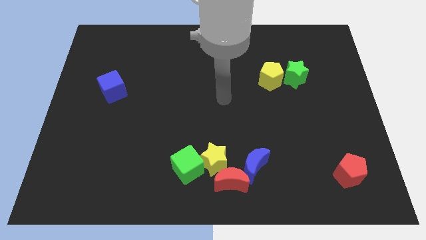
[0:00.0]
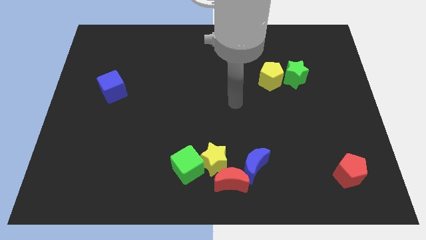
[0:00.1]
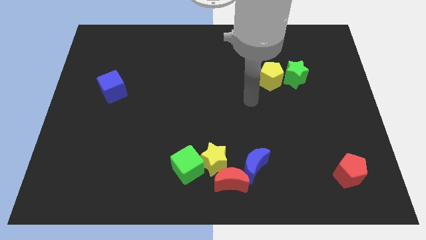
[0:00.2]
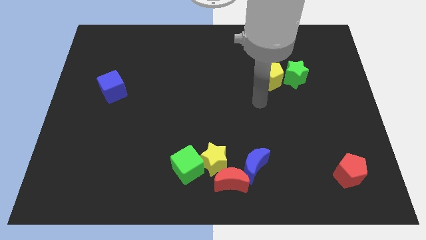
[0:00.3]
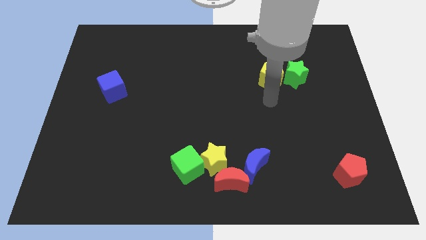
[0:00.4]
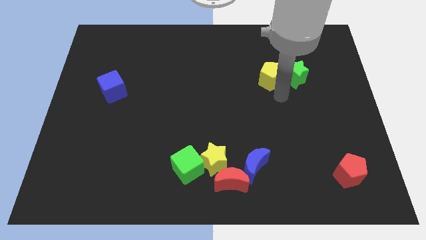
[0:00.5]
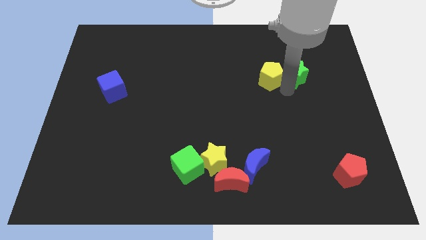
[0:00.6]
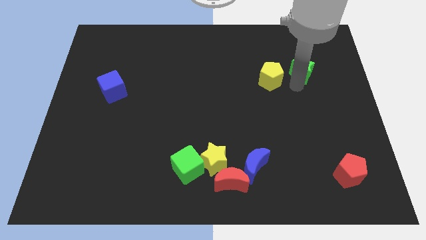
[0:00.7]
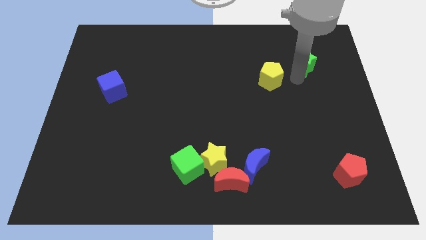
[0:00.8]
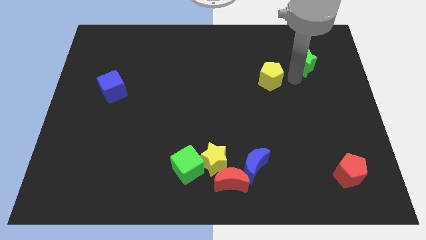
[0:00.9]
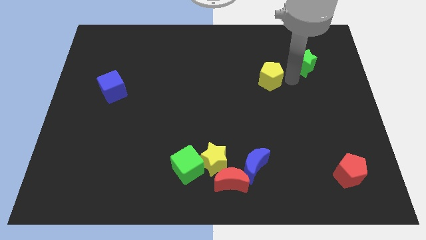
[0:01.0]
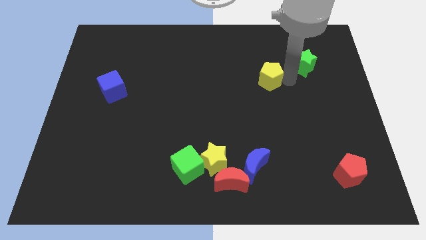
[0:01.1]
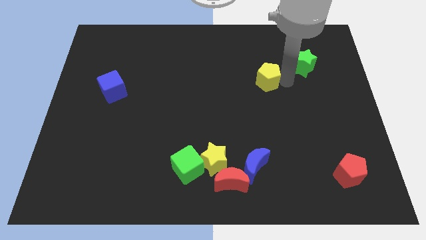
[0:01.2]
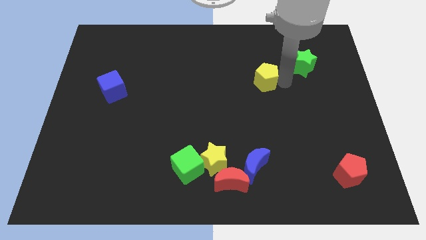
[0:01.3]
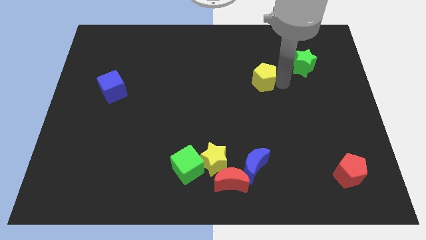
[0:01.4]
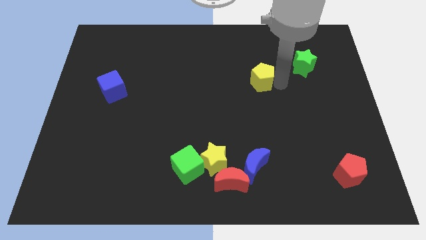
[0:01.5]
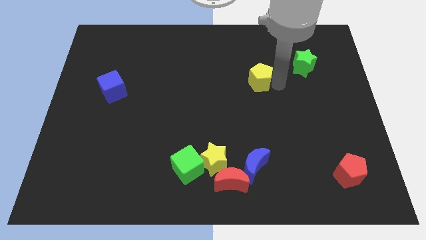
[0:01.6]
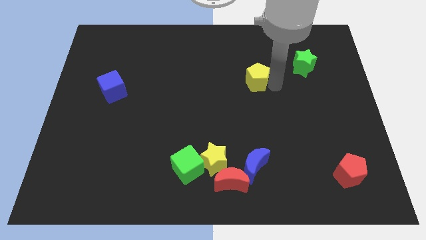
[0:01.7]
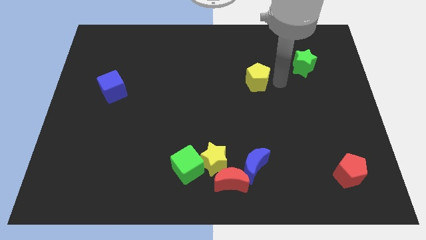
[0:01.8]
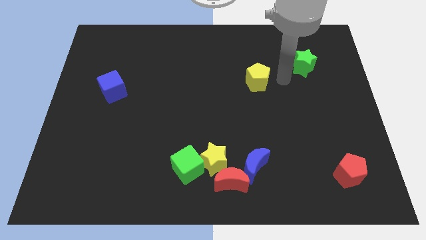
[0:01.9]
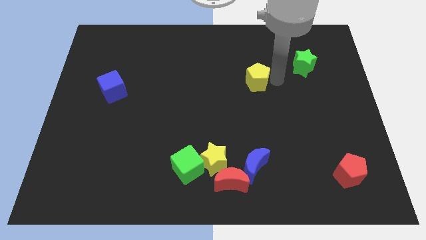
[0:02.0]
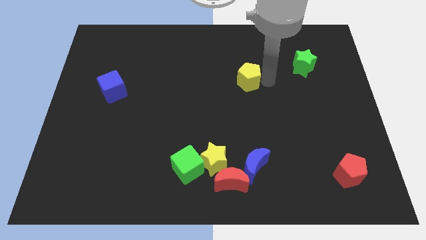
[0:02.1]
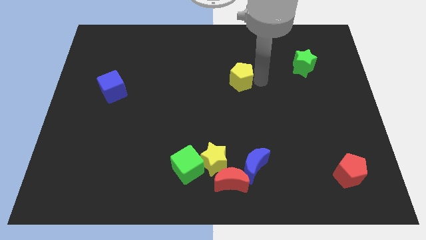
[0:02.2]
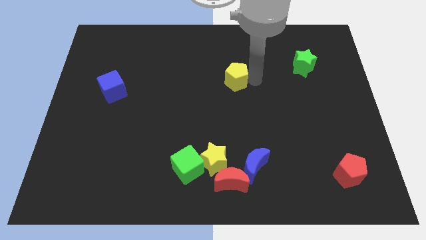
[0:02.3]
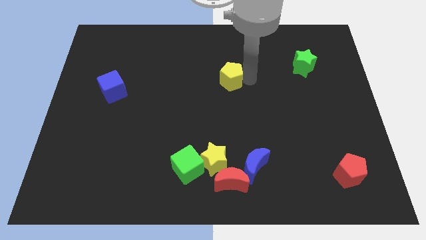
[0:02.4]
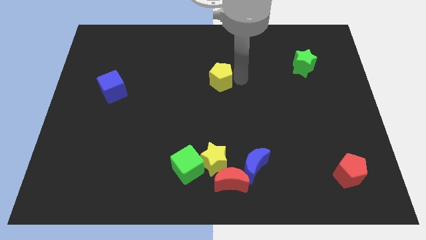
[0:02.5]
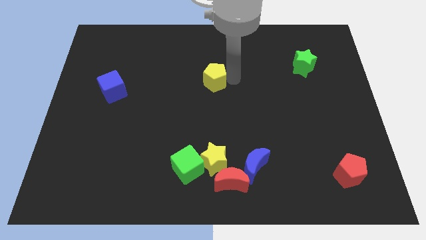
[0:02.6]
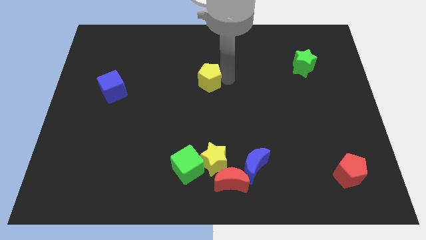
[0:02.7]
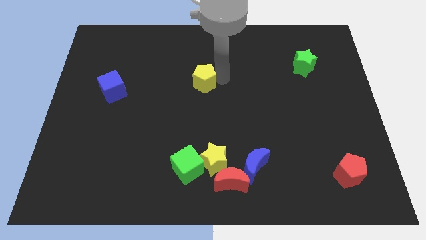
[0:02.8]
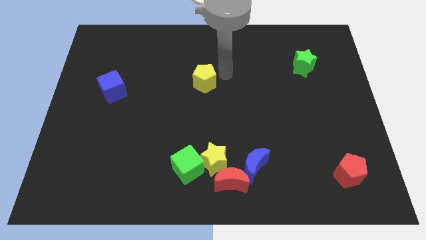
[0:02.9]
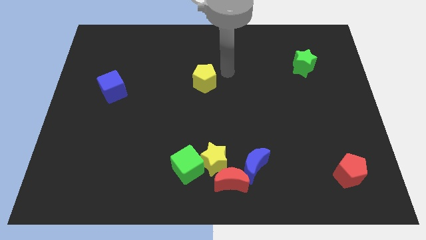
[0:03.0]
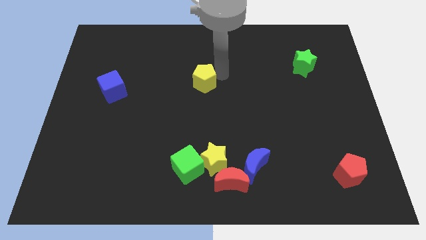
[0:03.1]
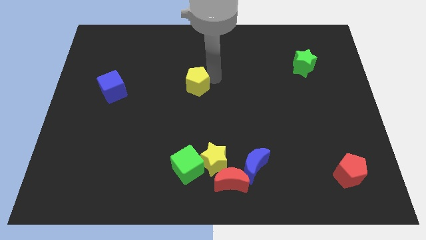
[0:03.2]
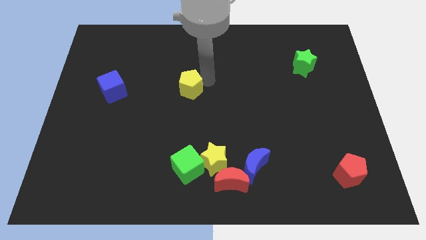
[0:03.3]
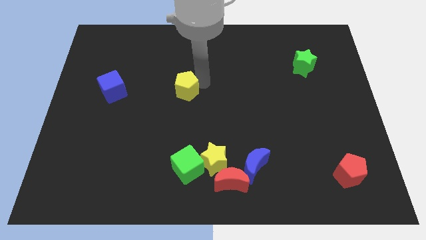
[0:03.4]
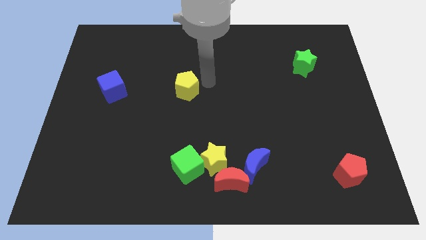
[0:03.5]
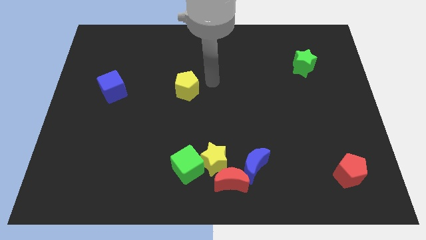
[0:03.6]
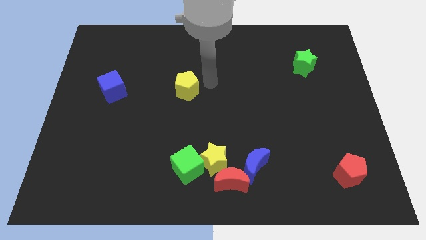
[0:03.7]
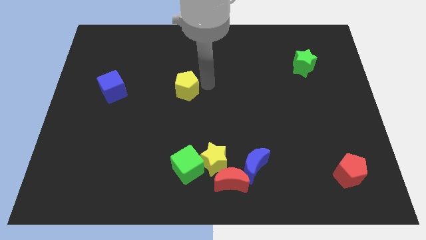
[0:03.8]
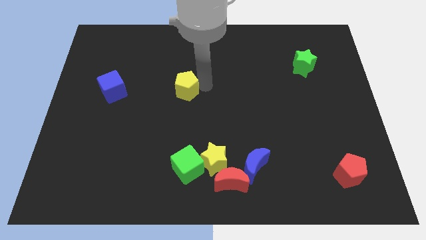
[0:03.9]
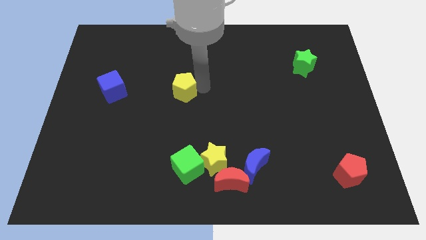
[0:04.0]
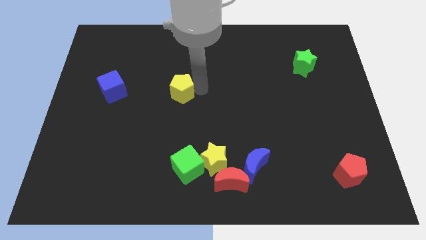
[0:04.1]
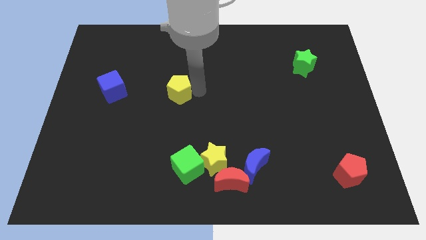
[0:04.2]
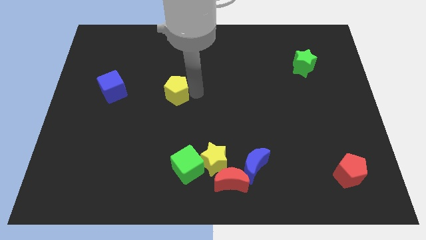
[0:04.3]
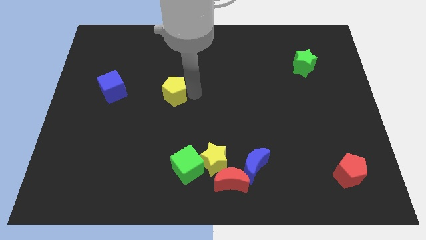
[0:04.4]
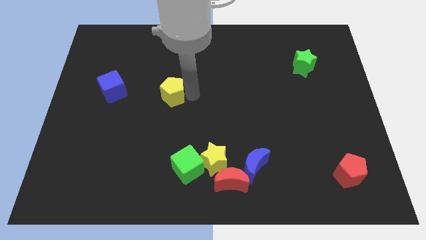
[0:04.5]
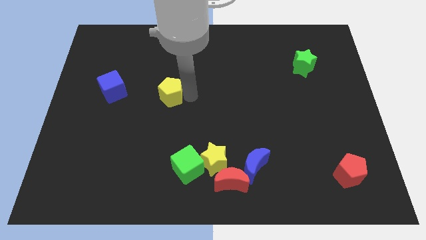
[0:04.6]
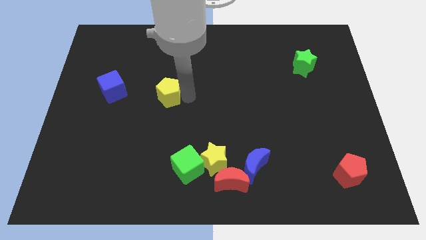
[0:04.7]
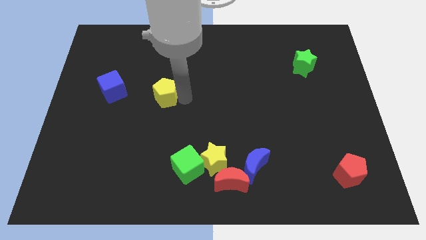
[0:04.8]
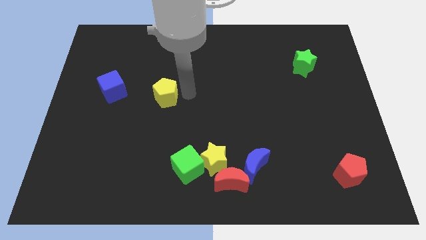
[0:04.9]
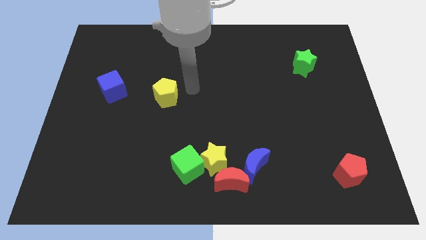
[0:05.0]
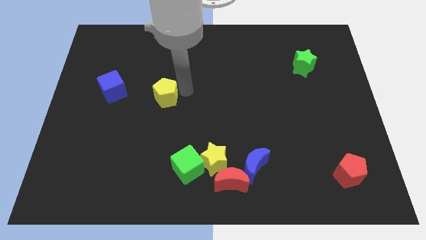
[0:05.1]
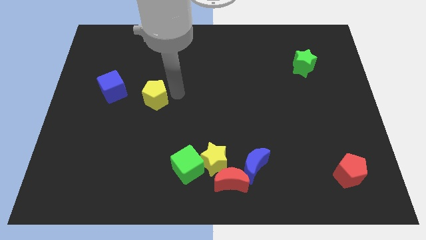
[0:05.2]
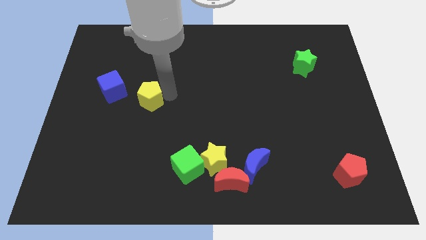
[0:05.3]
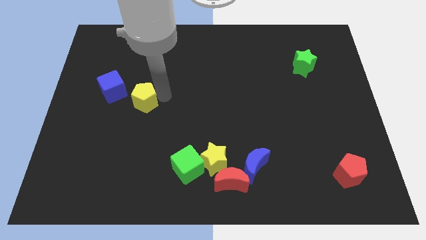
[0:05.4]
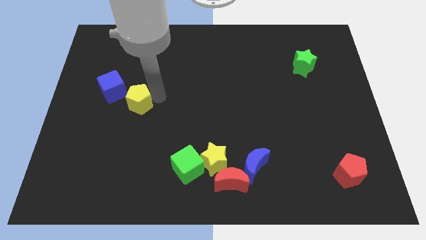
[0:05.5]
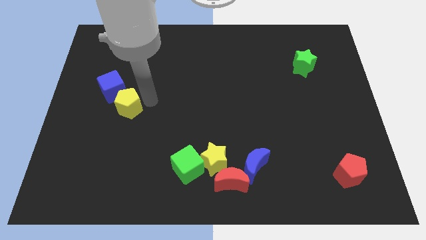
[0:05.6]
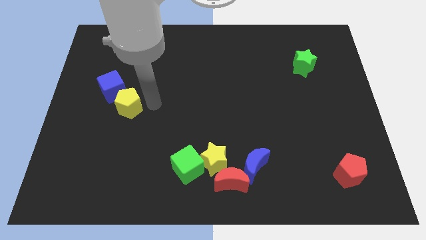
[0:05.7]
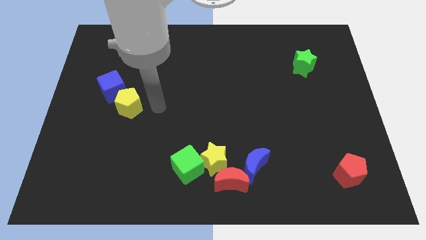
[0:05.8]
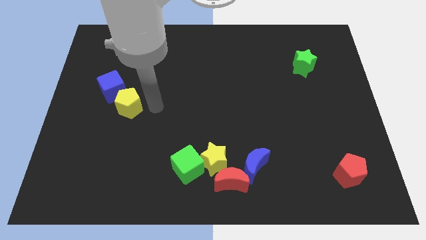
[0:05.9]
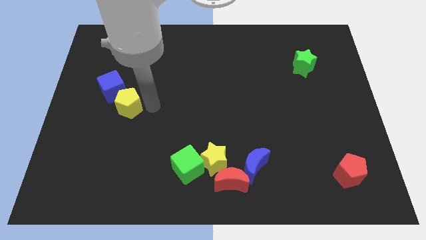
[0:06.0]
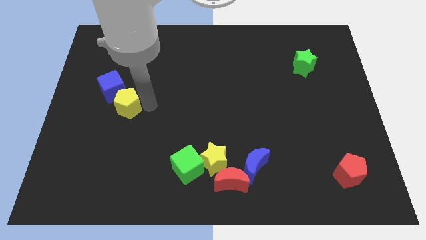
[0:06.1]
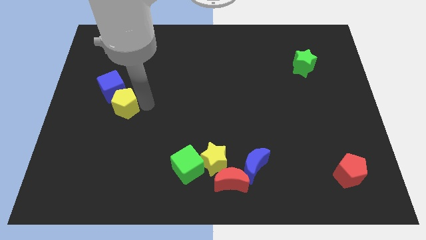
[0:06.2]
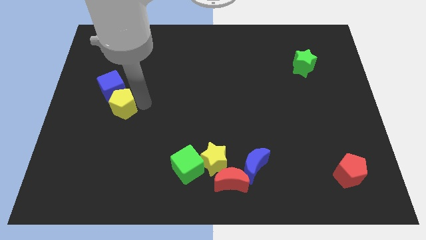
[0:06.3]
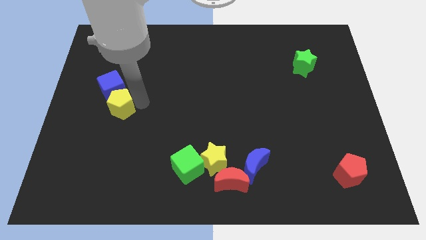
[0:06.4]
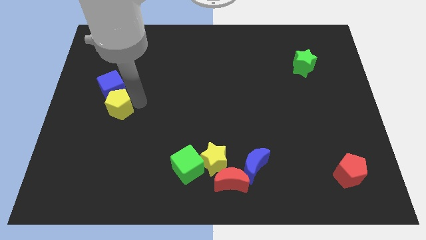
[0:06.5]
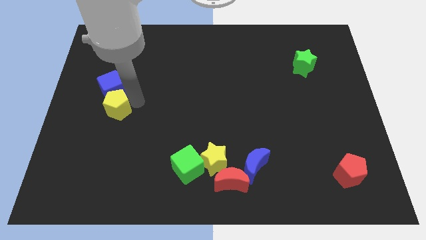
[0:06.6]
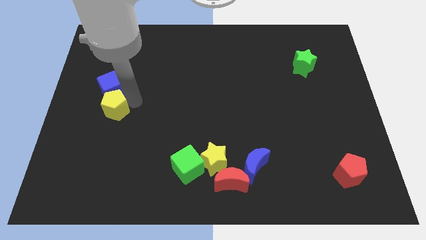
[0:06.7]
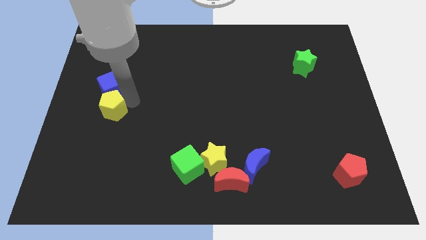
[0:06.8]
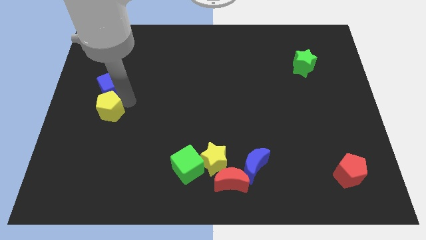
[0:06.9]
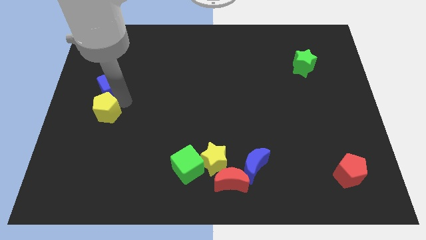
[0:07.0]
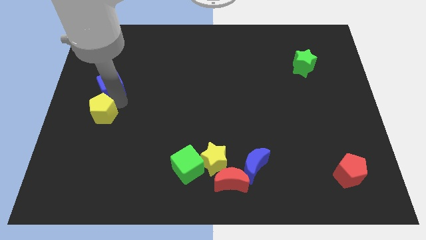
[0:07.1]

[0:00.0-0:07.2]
slide the yellow pentagon to the left side
